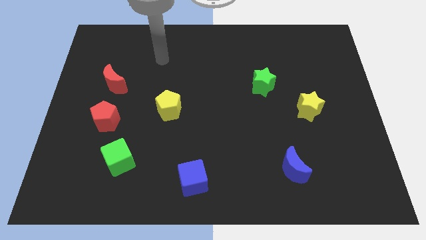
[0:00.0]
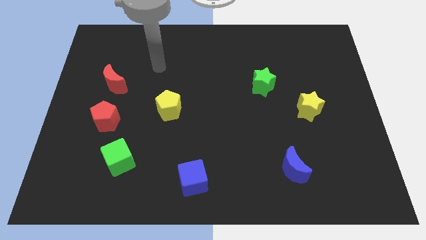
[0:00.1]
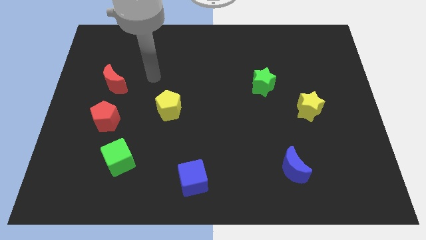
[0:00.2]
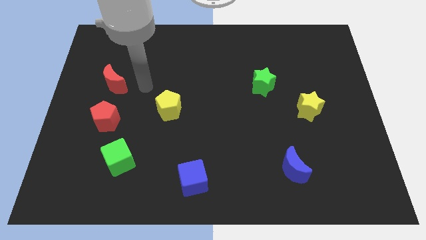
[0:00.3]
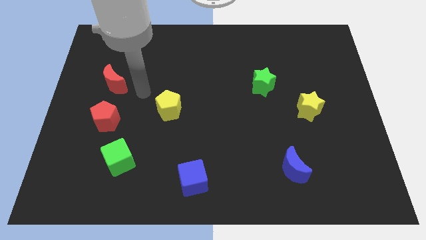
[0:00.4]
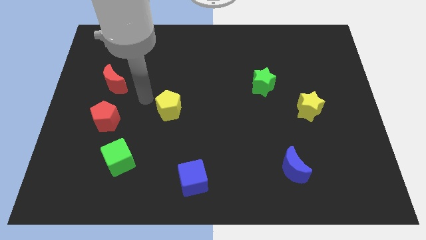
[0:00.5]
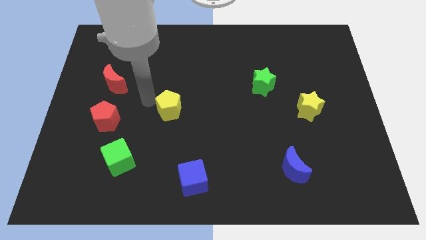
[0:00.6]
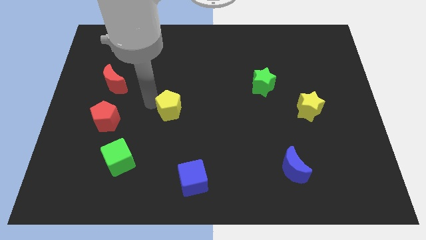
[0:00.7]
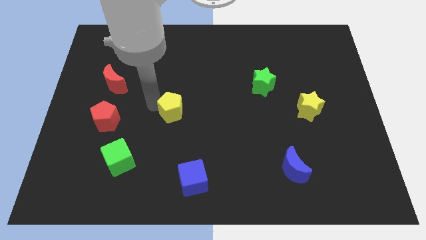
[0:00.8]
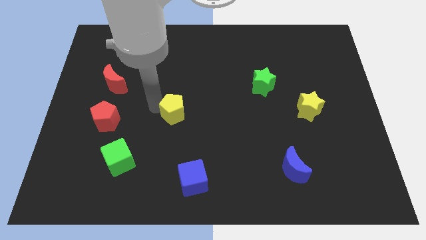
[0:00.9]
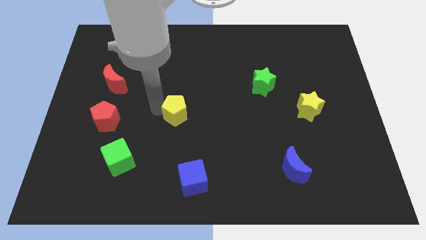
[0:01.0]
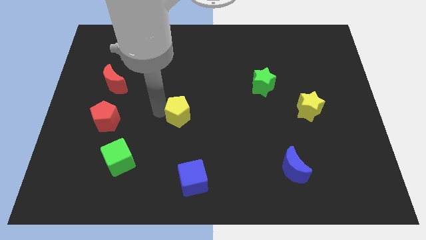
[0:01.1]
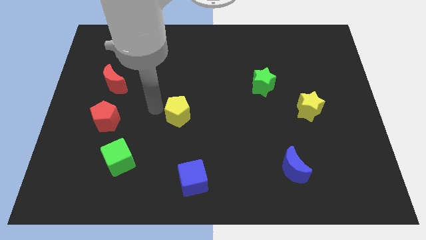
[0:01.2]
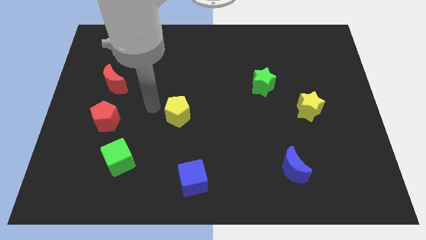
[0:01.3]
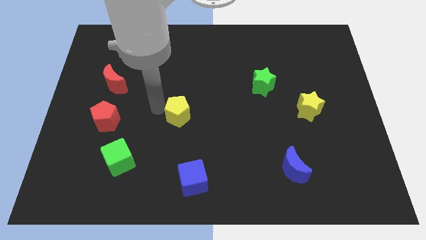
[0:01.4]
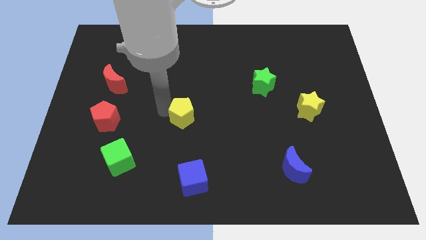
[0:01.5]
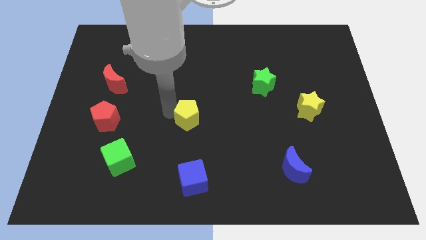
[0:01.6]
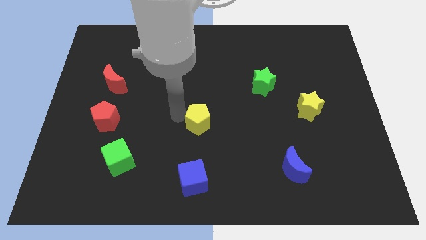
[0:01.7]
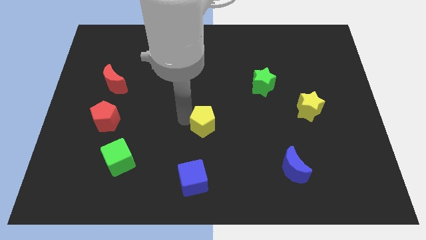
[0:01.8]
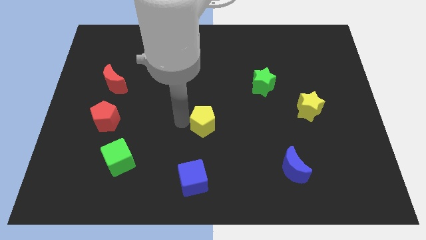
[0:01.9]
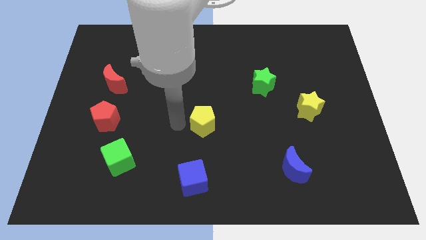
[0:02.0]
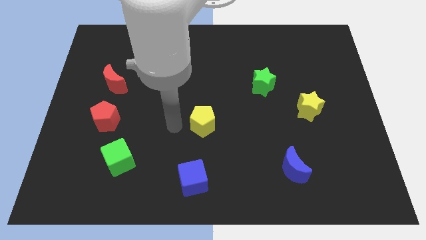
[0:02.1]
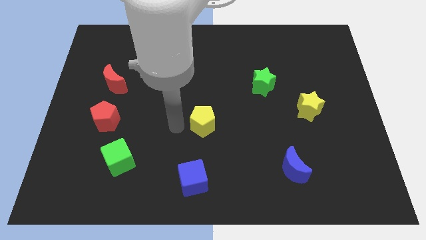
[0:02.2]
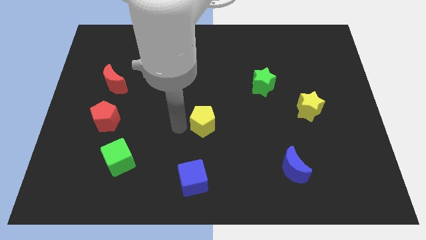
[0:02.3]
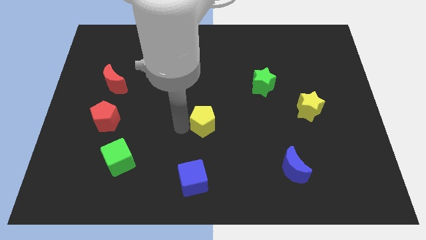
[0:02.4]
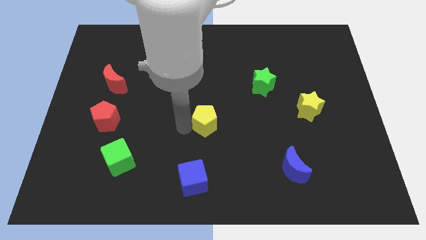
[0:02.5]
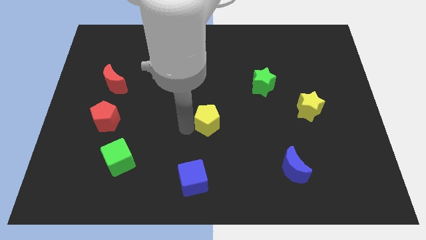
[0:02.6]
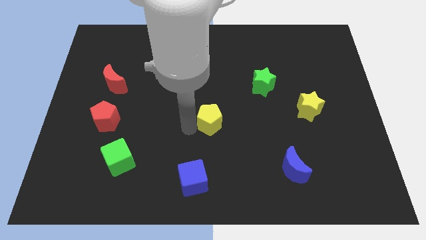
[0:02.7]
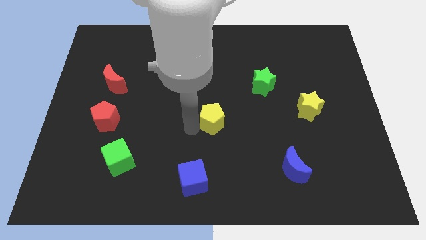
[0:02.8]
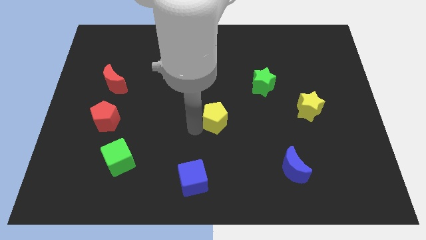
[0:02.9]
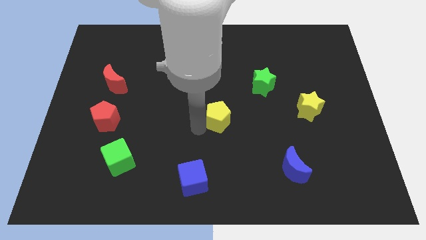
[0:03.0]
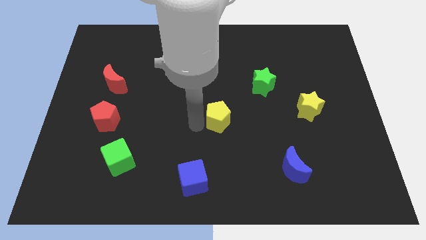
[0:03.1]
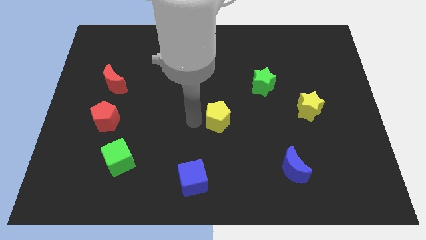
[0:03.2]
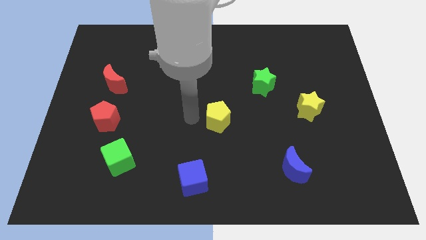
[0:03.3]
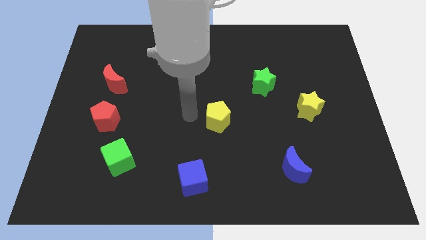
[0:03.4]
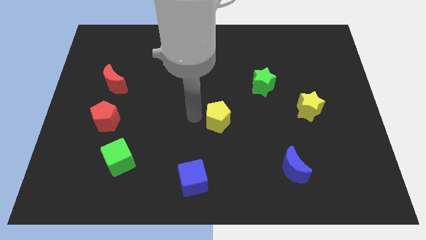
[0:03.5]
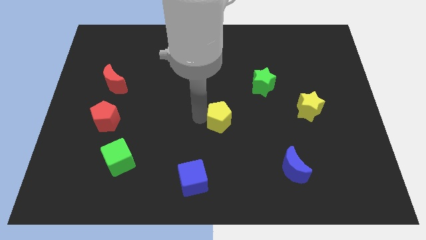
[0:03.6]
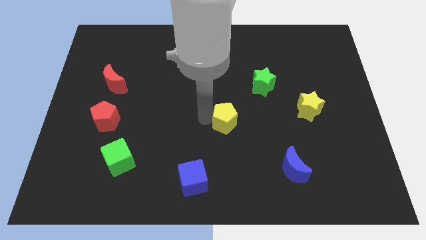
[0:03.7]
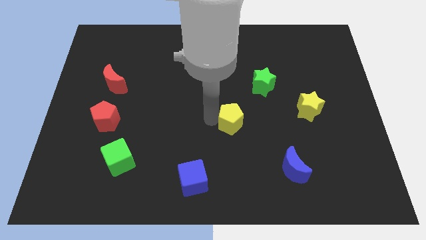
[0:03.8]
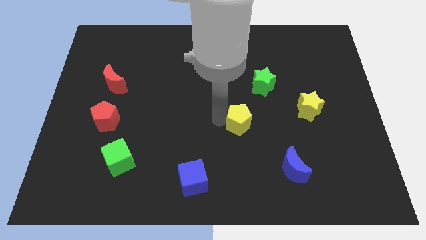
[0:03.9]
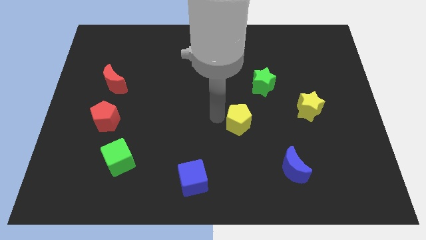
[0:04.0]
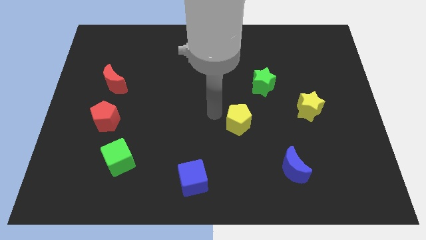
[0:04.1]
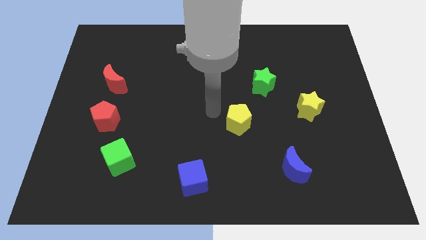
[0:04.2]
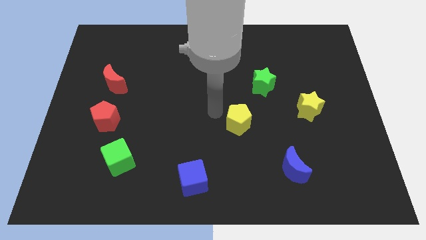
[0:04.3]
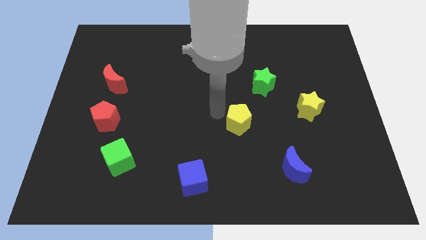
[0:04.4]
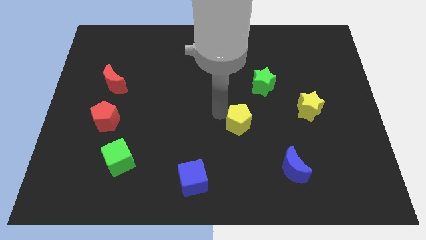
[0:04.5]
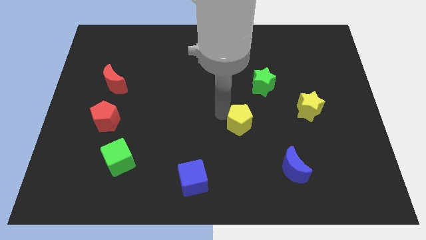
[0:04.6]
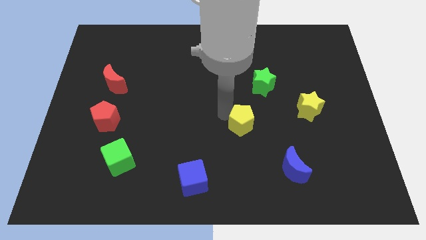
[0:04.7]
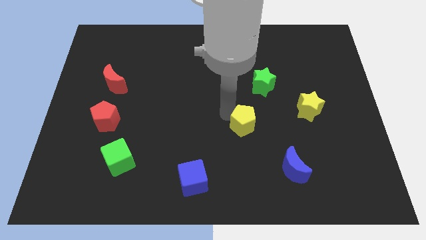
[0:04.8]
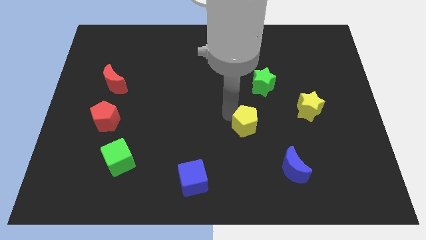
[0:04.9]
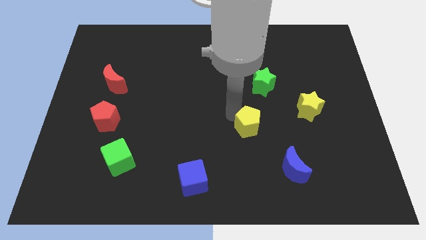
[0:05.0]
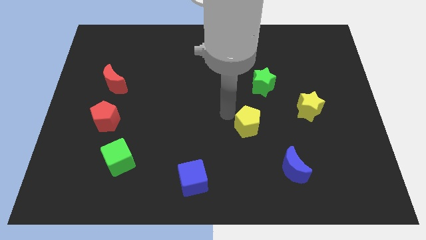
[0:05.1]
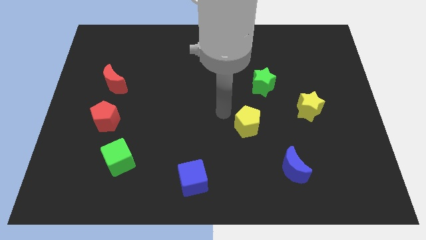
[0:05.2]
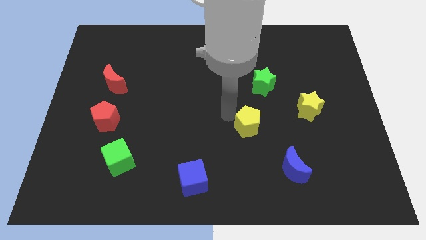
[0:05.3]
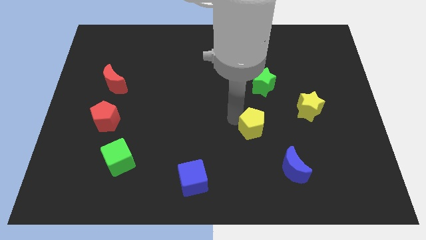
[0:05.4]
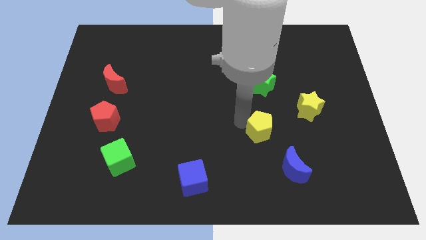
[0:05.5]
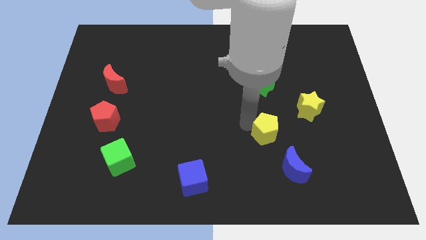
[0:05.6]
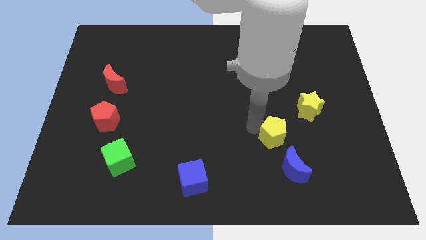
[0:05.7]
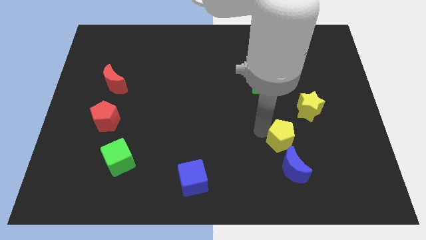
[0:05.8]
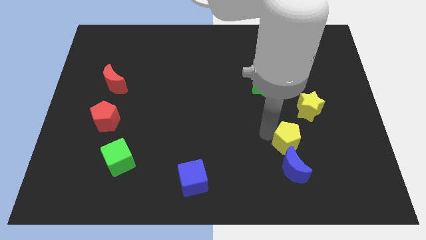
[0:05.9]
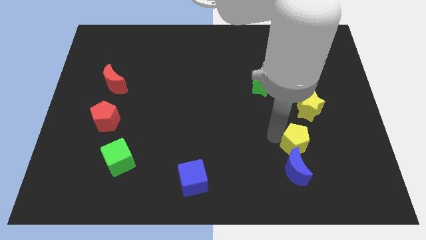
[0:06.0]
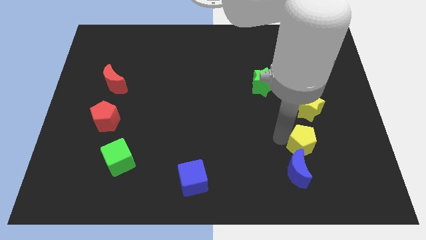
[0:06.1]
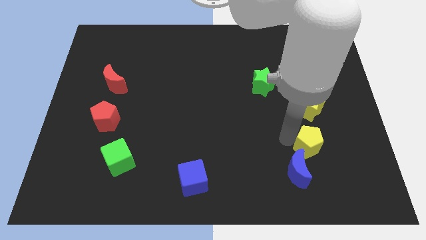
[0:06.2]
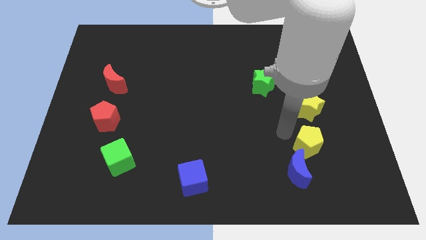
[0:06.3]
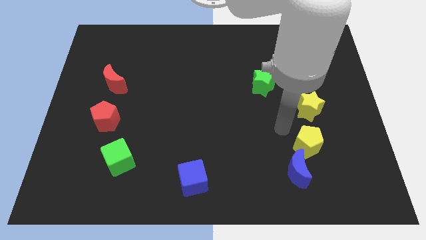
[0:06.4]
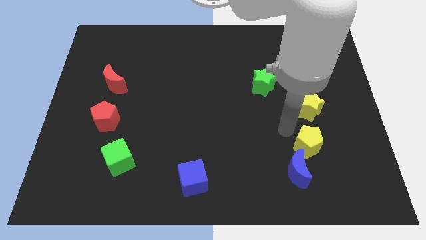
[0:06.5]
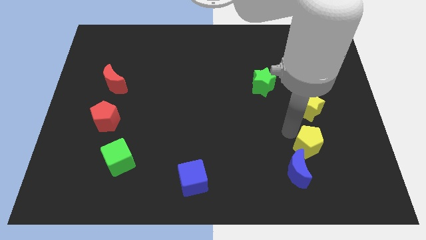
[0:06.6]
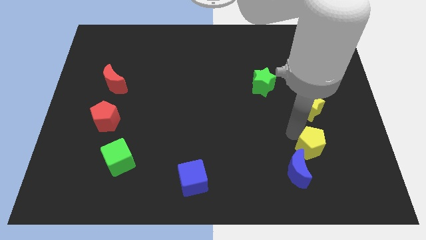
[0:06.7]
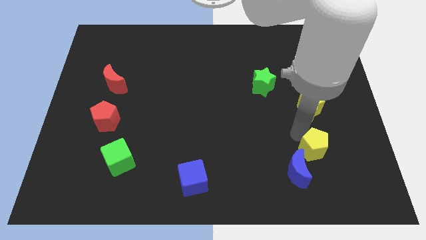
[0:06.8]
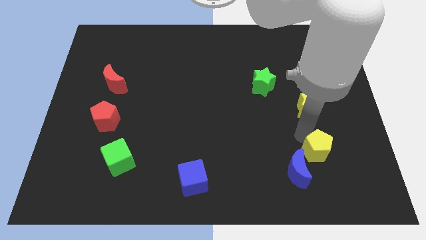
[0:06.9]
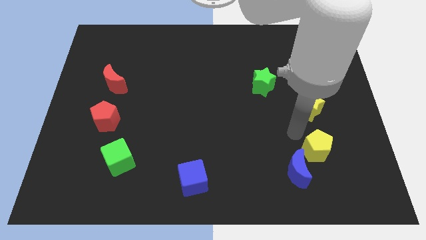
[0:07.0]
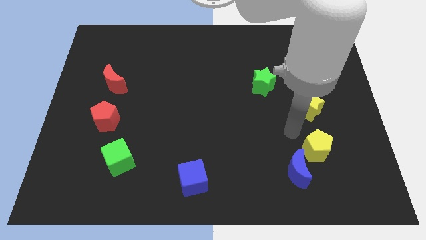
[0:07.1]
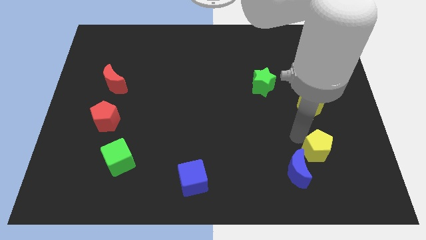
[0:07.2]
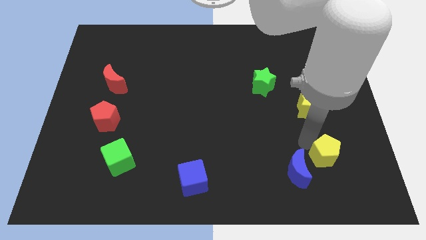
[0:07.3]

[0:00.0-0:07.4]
move the yellow pentagon right of the blue moon
